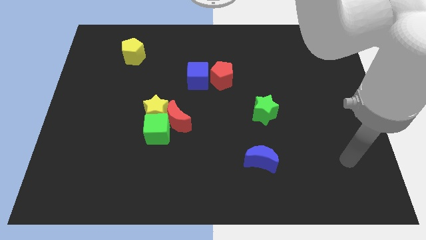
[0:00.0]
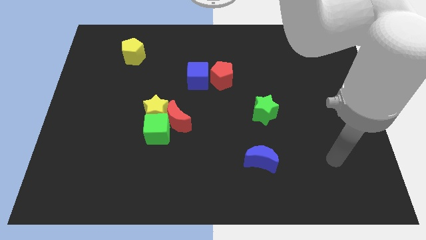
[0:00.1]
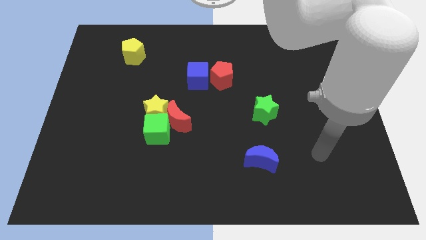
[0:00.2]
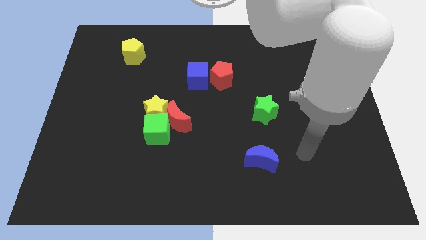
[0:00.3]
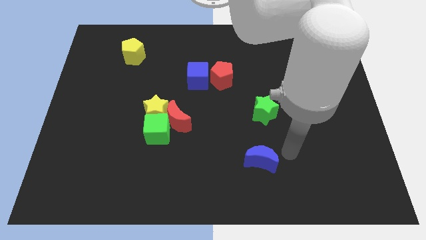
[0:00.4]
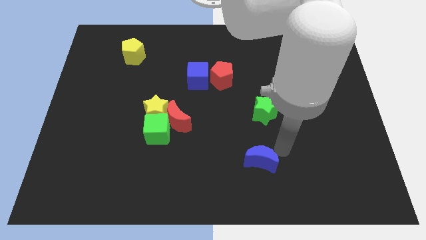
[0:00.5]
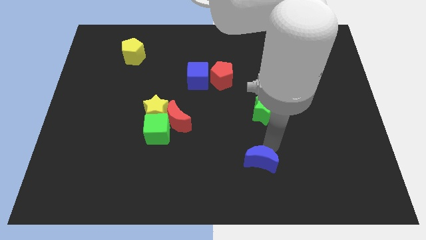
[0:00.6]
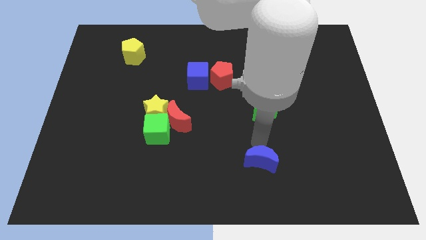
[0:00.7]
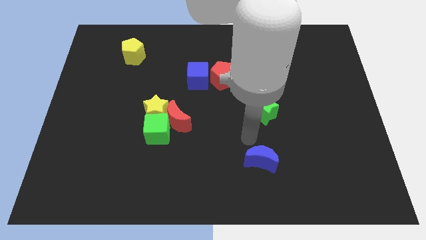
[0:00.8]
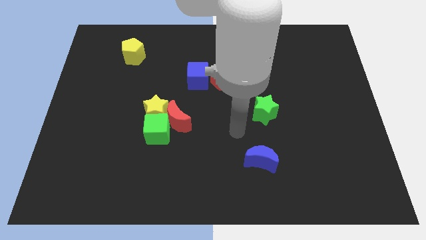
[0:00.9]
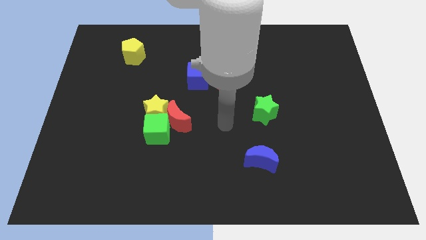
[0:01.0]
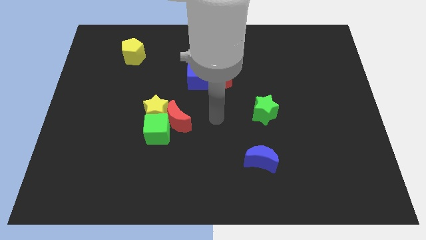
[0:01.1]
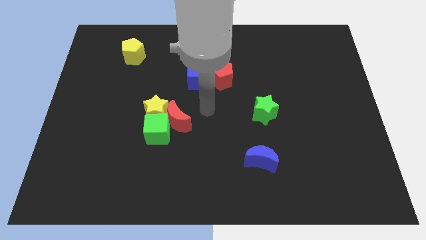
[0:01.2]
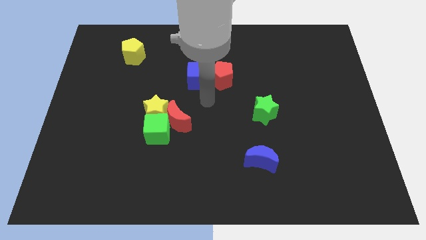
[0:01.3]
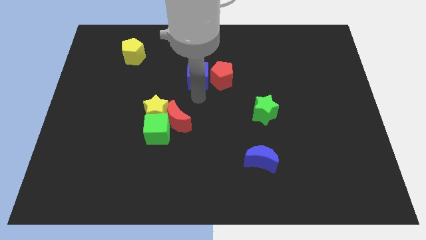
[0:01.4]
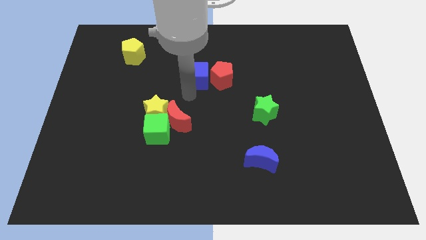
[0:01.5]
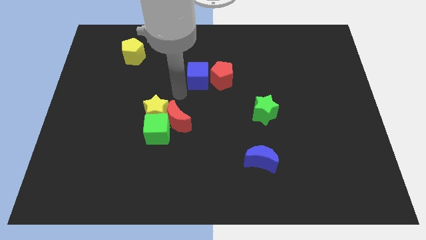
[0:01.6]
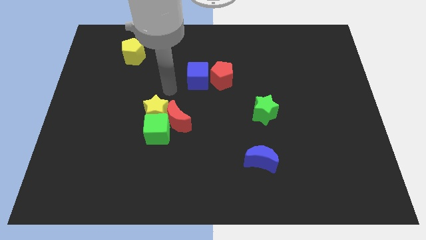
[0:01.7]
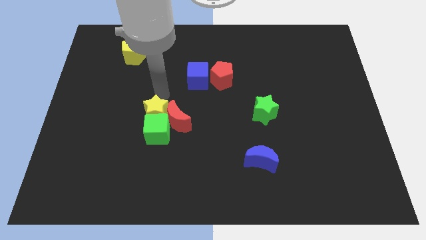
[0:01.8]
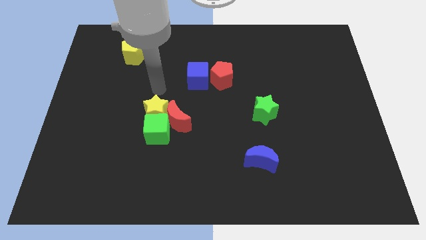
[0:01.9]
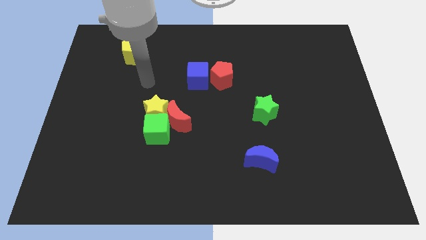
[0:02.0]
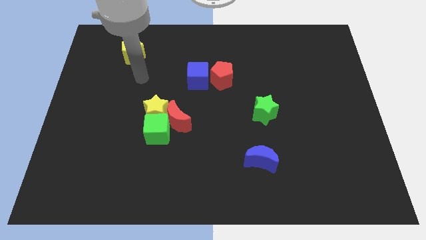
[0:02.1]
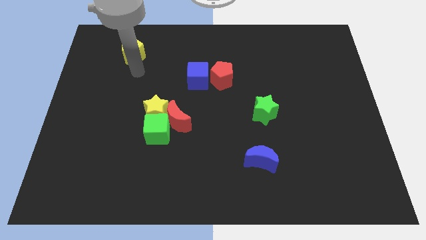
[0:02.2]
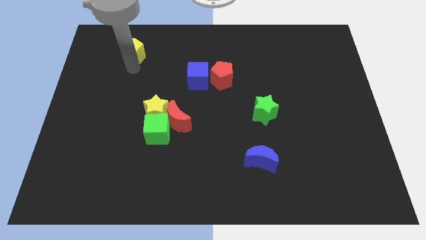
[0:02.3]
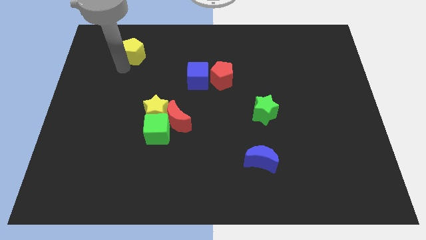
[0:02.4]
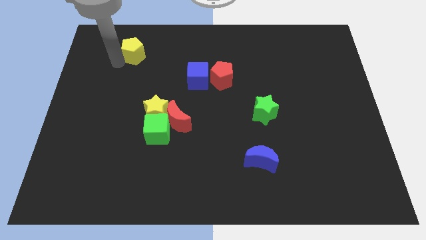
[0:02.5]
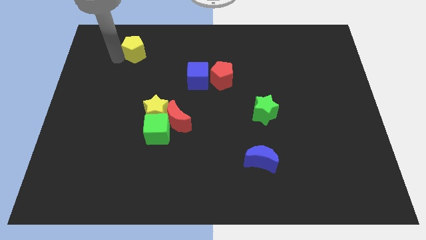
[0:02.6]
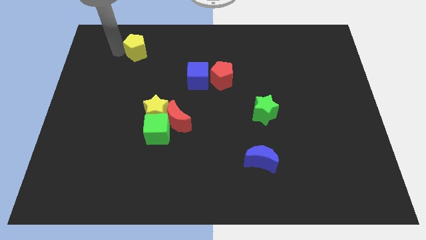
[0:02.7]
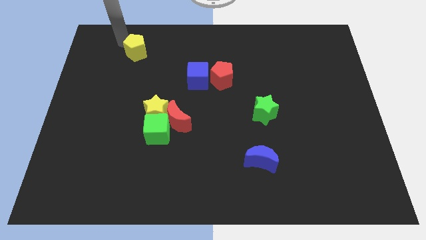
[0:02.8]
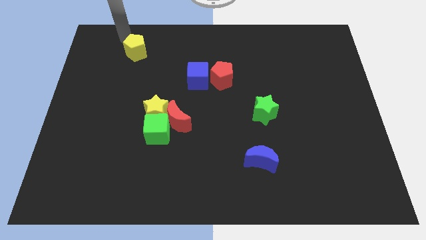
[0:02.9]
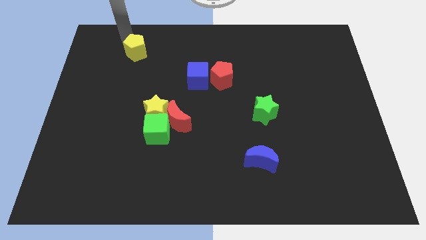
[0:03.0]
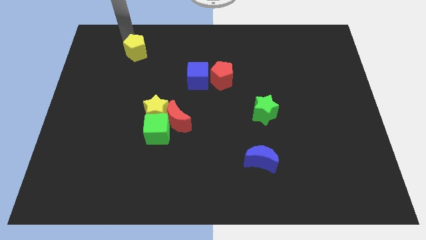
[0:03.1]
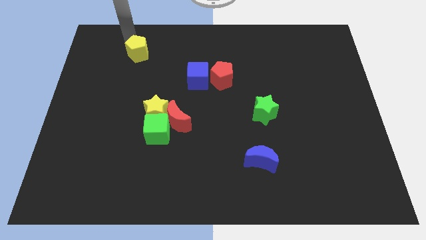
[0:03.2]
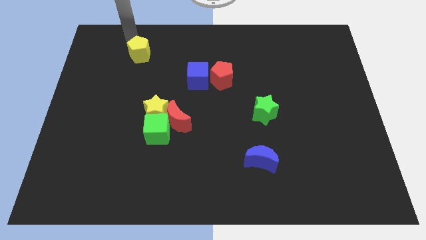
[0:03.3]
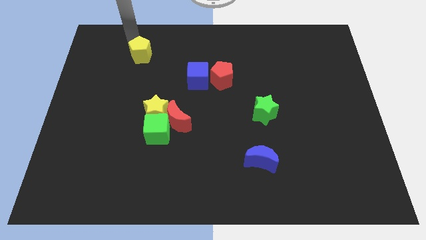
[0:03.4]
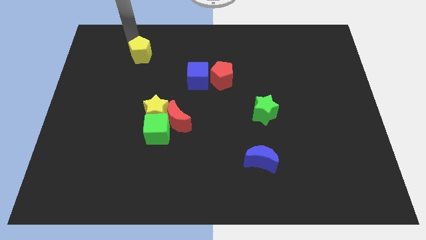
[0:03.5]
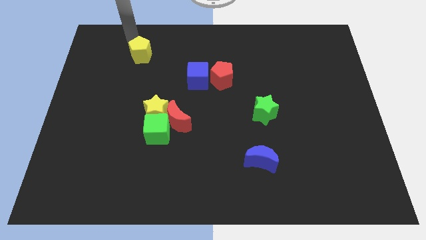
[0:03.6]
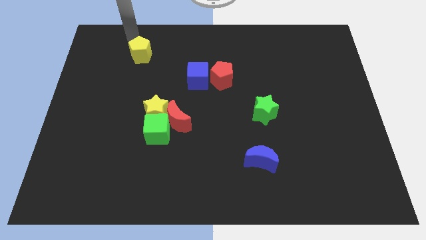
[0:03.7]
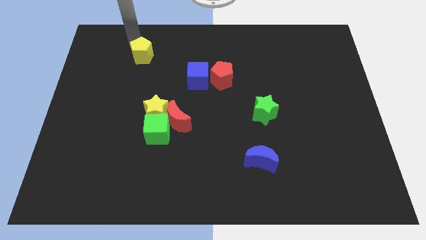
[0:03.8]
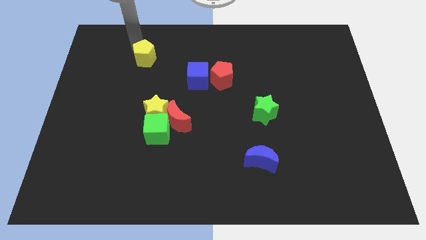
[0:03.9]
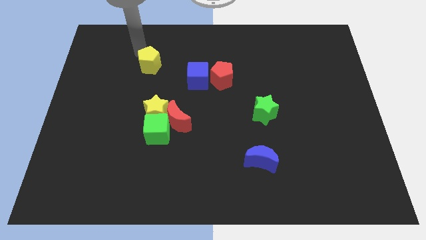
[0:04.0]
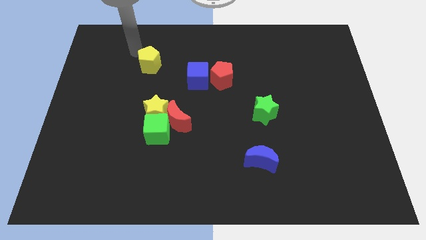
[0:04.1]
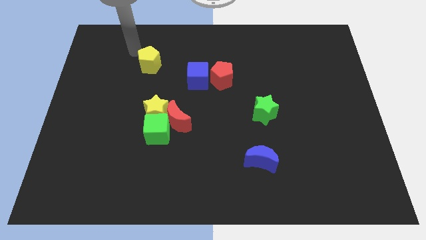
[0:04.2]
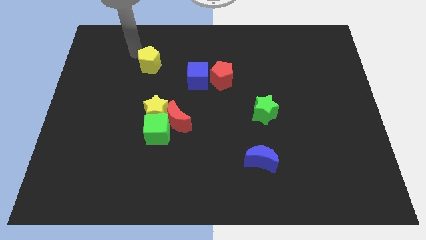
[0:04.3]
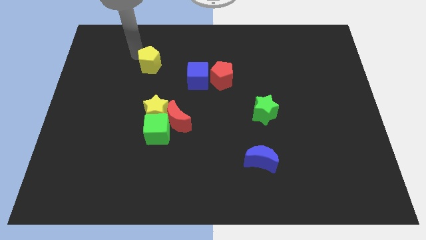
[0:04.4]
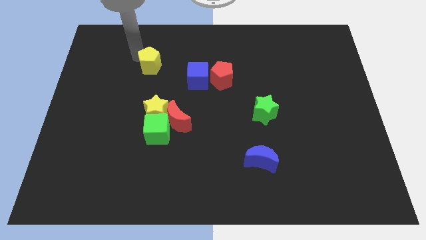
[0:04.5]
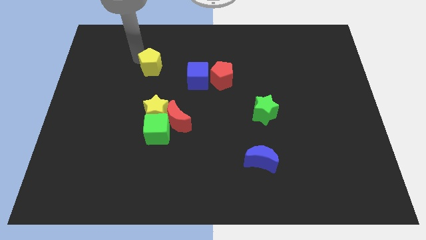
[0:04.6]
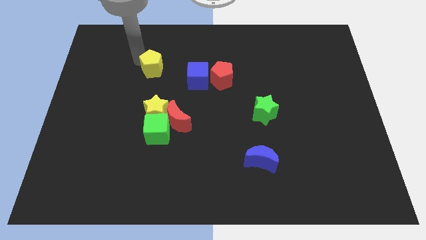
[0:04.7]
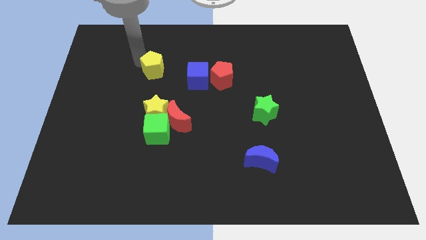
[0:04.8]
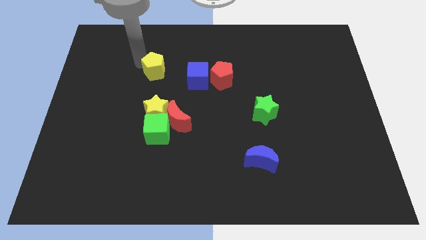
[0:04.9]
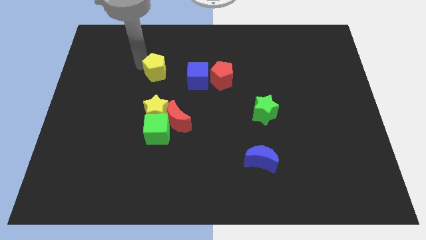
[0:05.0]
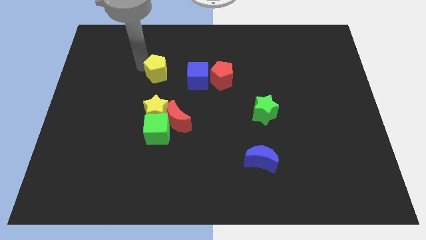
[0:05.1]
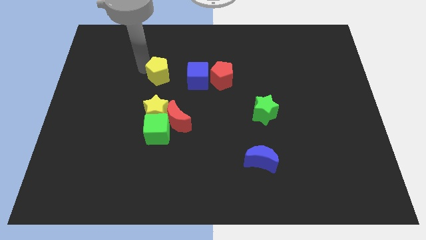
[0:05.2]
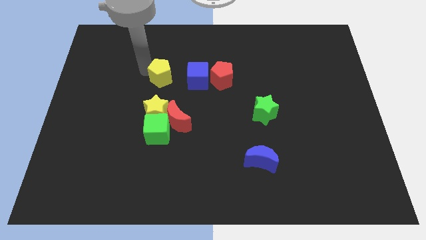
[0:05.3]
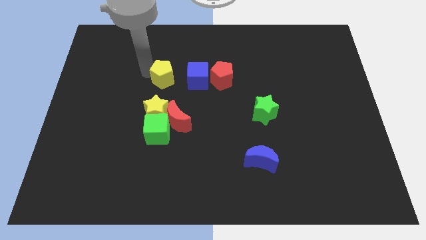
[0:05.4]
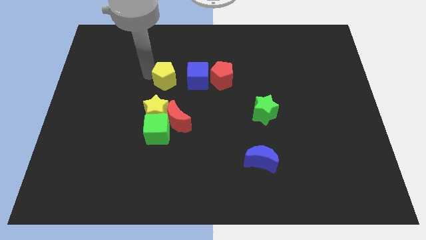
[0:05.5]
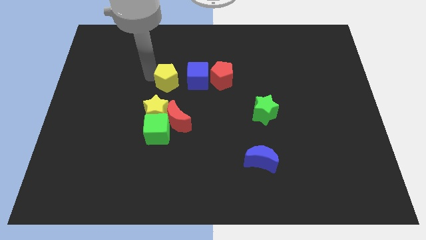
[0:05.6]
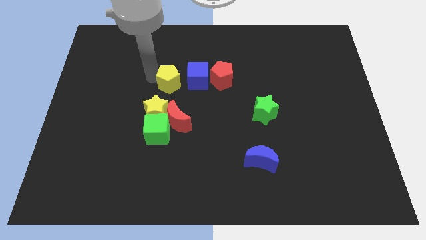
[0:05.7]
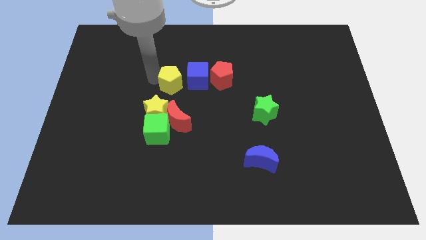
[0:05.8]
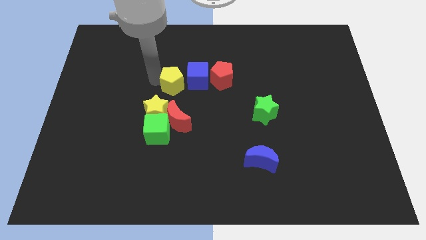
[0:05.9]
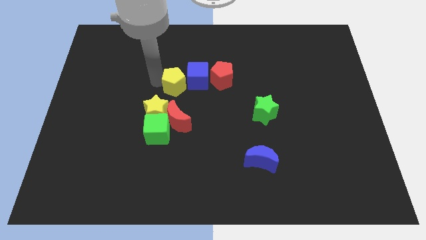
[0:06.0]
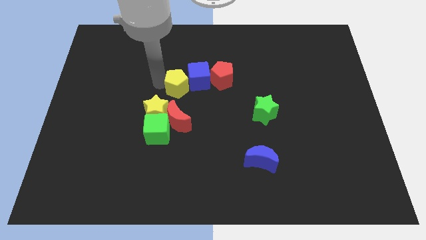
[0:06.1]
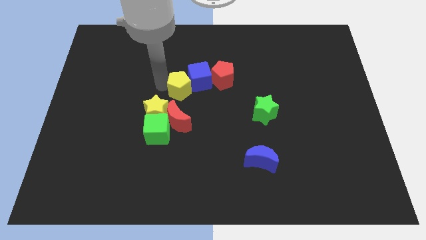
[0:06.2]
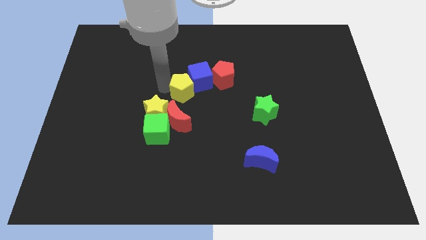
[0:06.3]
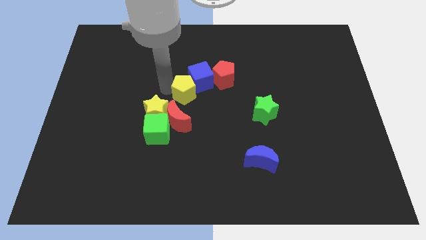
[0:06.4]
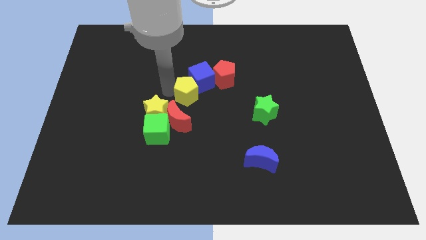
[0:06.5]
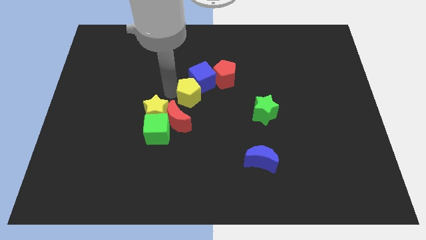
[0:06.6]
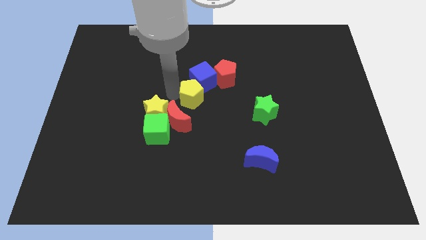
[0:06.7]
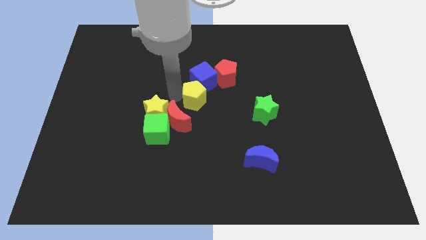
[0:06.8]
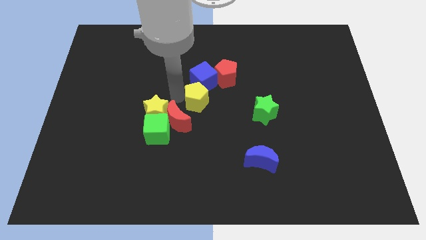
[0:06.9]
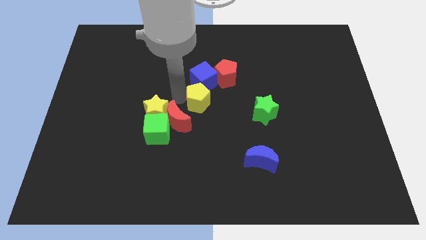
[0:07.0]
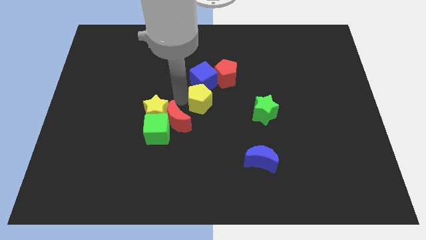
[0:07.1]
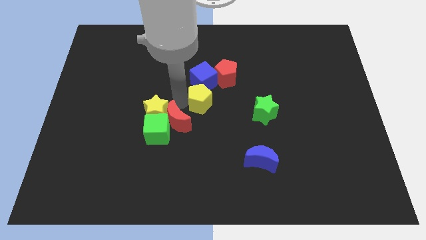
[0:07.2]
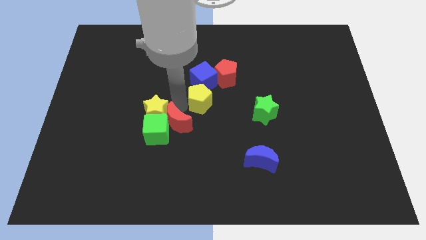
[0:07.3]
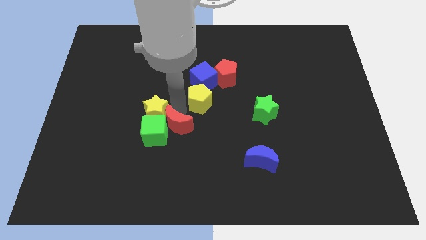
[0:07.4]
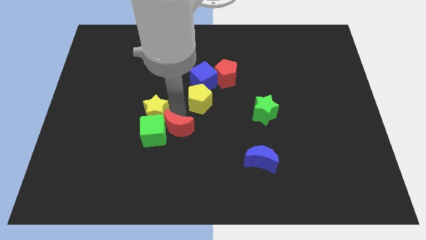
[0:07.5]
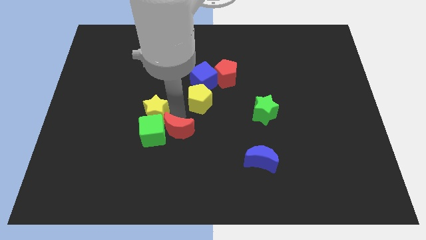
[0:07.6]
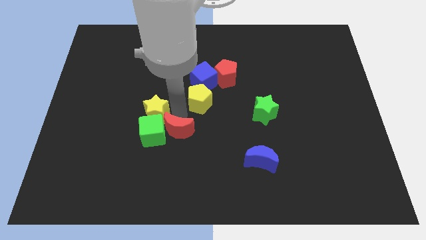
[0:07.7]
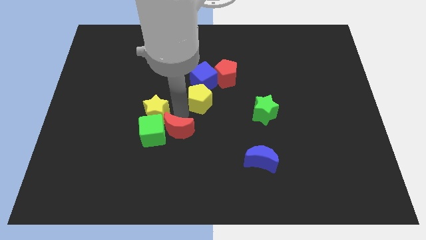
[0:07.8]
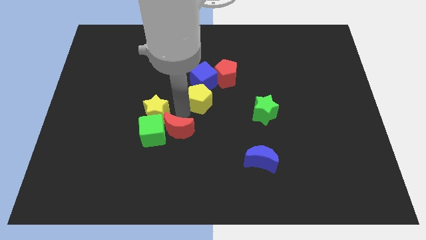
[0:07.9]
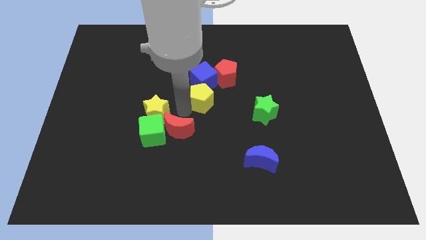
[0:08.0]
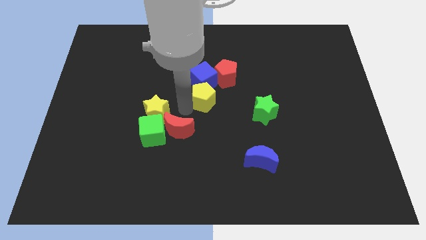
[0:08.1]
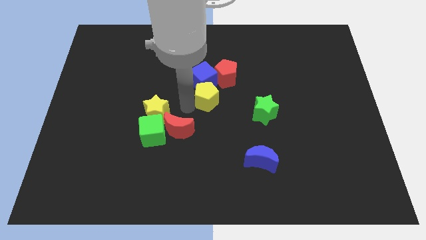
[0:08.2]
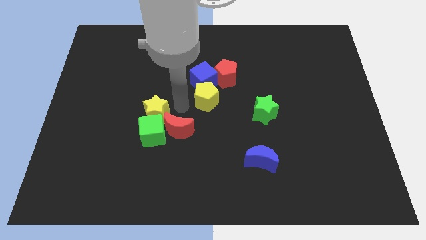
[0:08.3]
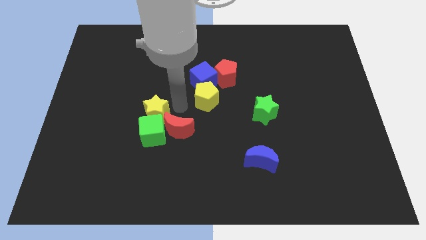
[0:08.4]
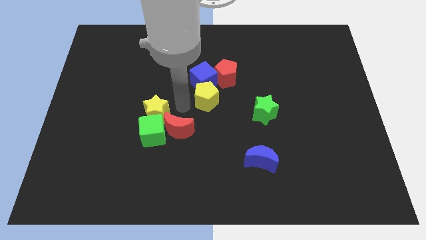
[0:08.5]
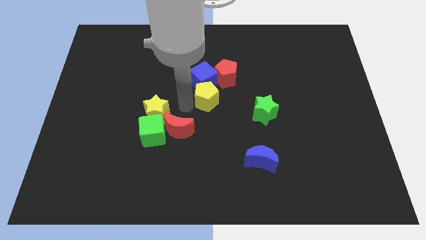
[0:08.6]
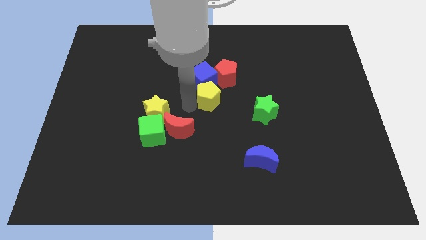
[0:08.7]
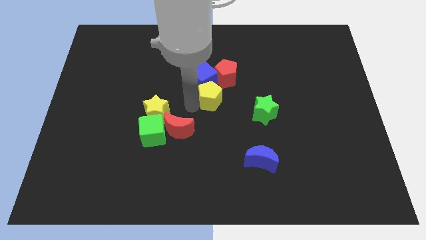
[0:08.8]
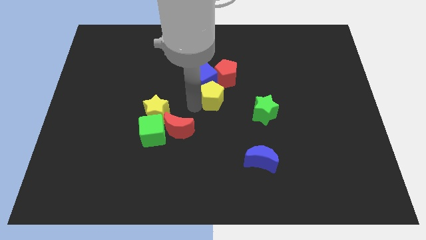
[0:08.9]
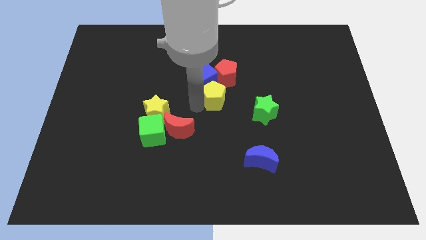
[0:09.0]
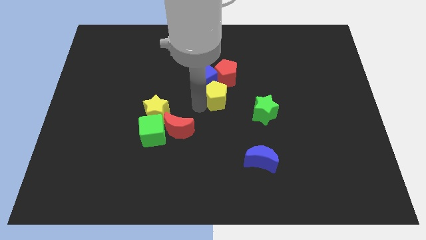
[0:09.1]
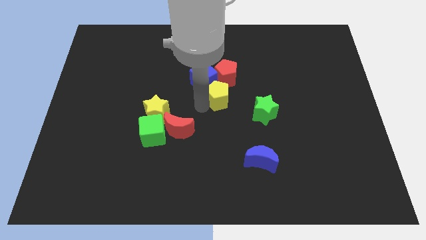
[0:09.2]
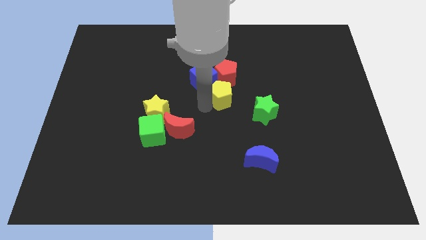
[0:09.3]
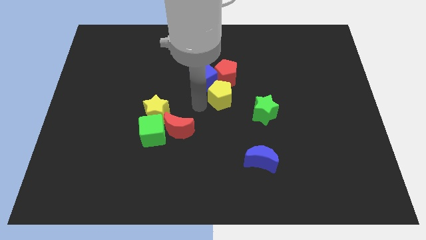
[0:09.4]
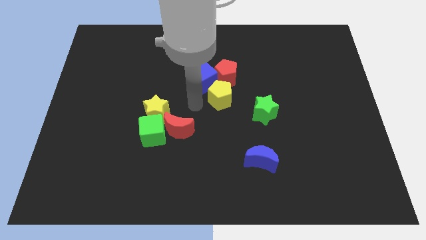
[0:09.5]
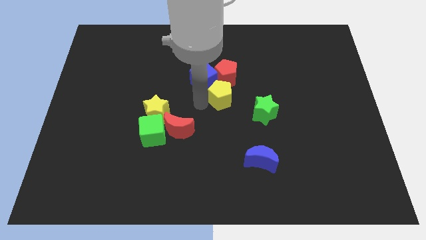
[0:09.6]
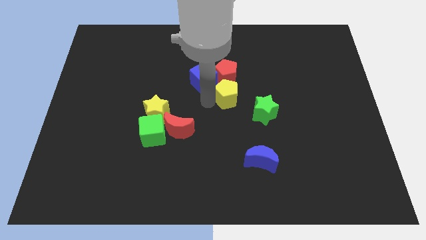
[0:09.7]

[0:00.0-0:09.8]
move the yellow pentagon diagonally down and to the right of the red pentagon
